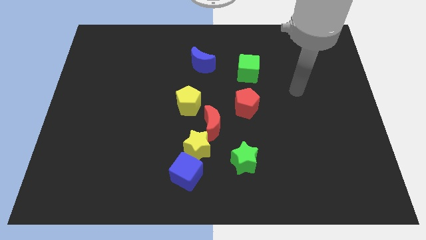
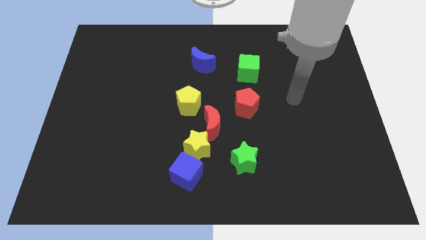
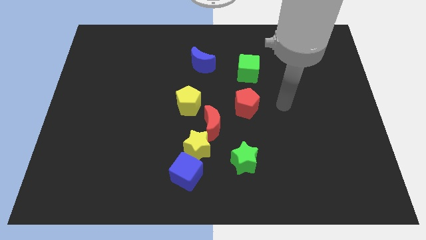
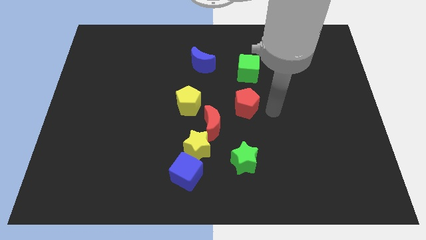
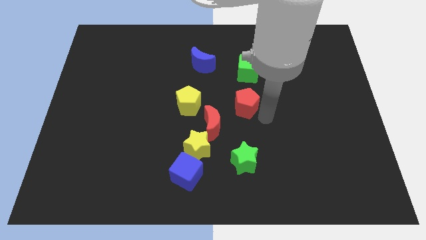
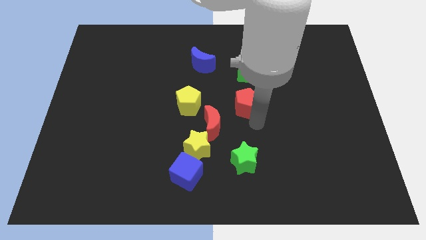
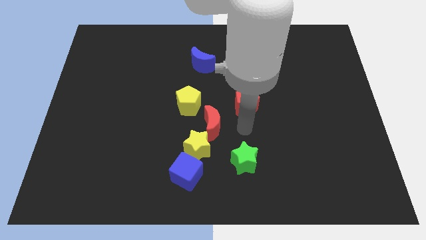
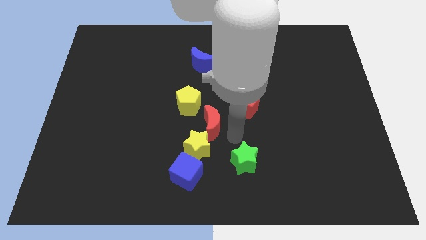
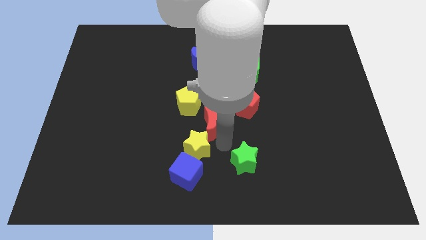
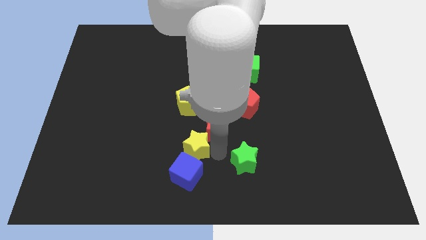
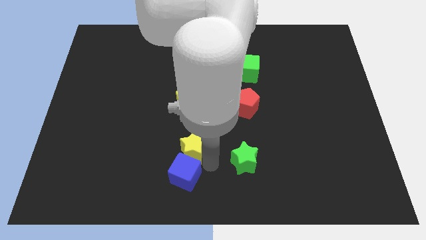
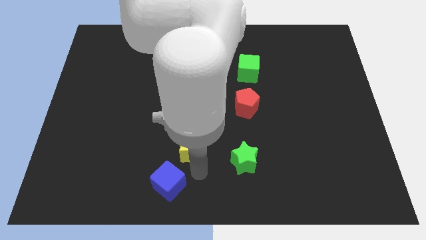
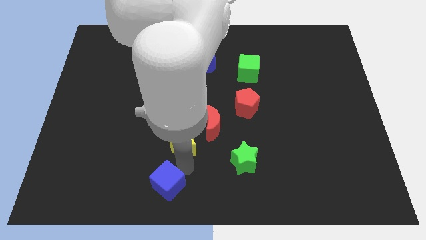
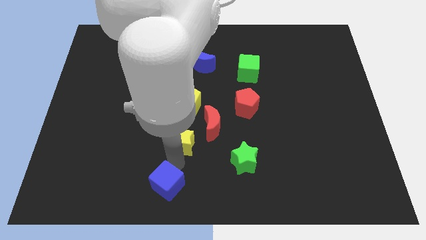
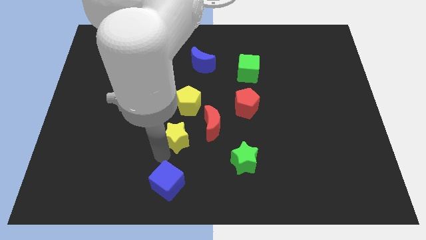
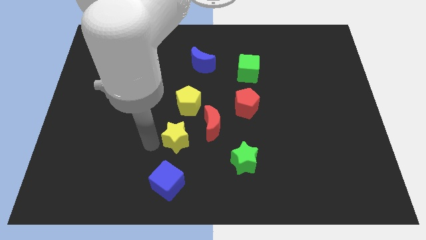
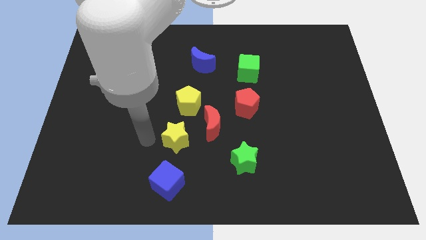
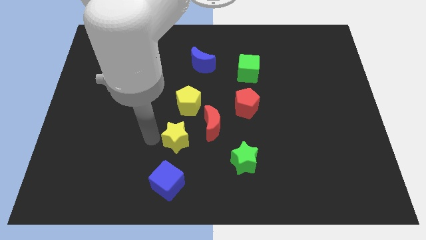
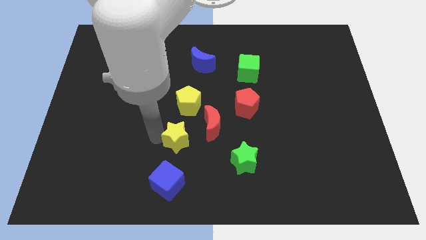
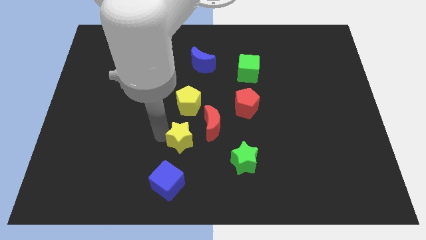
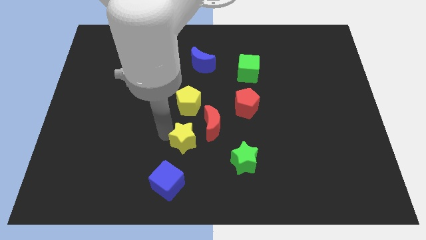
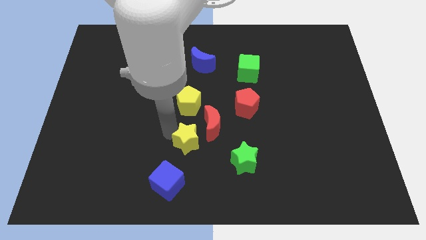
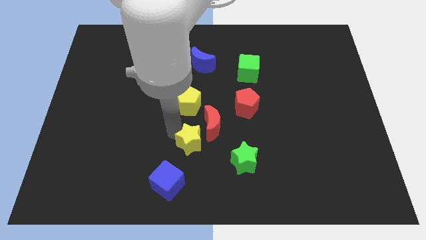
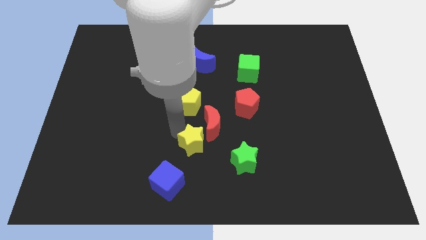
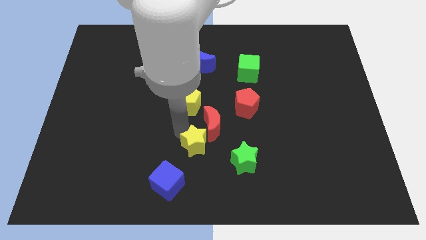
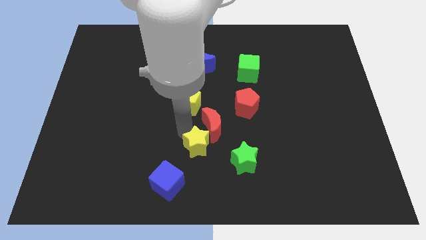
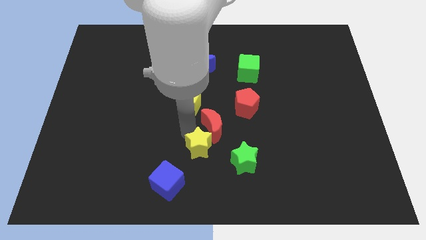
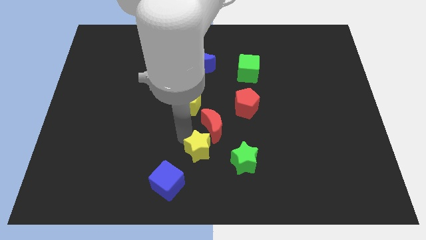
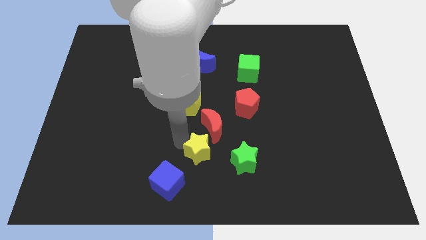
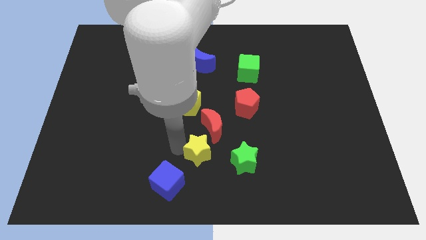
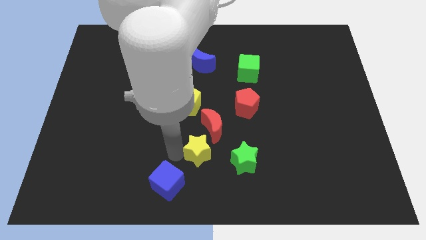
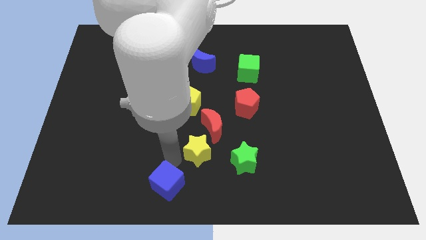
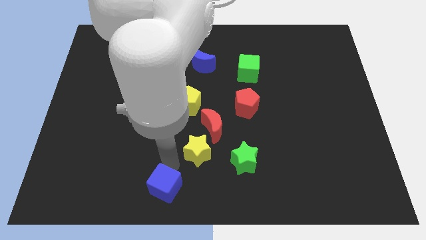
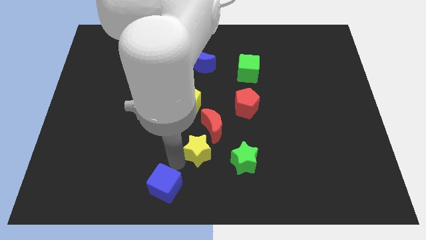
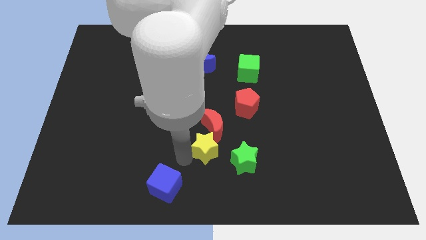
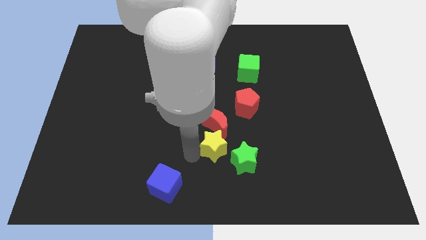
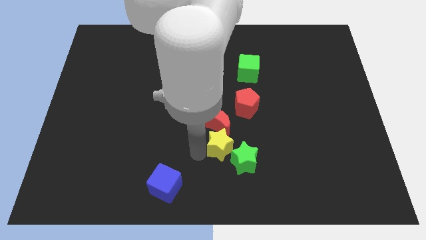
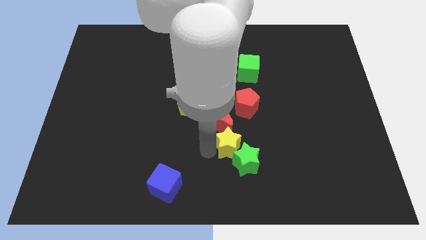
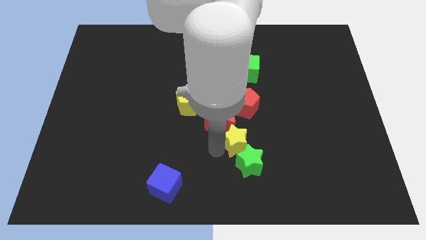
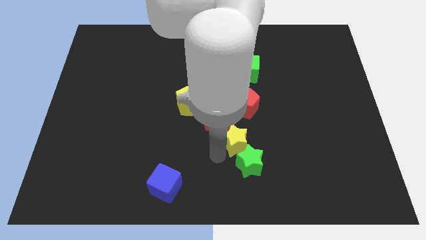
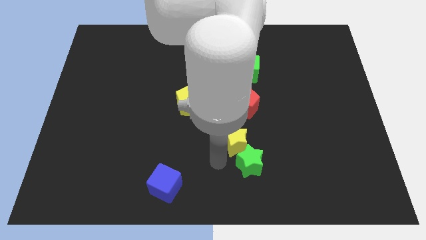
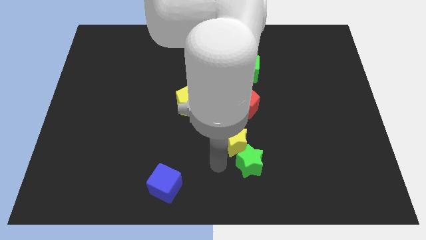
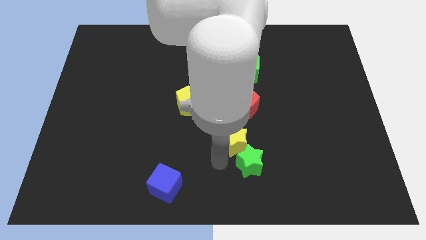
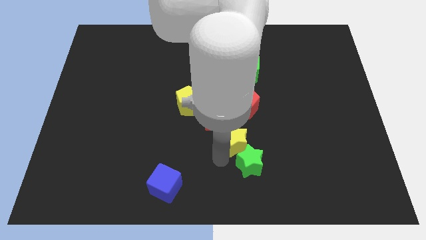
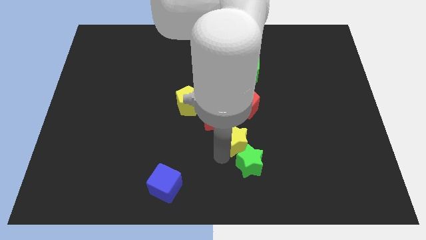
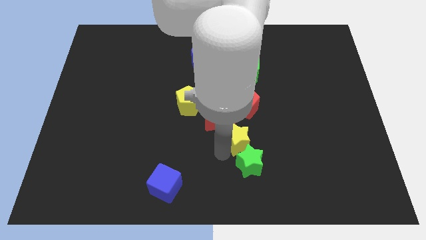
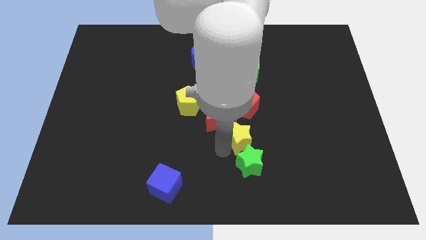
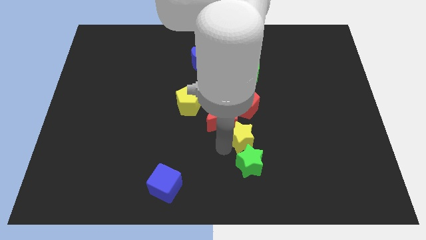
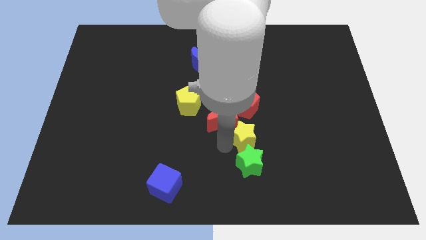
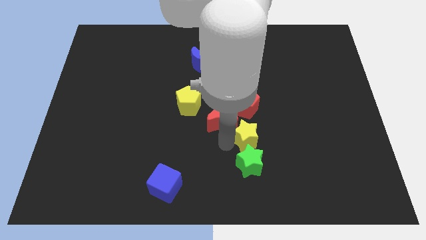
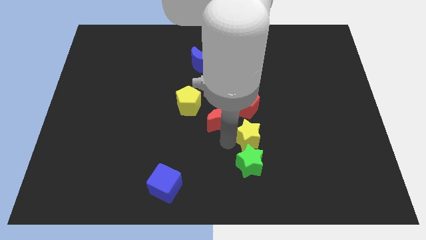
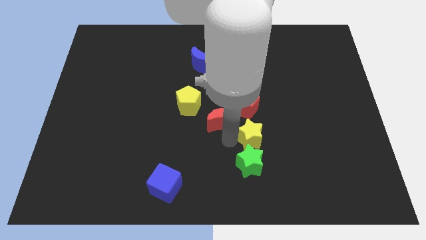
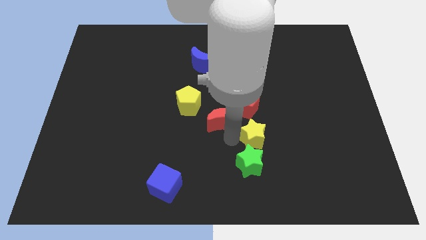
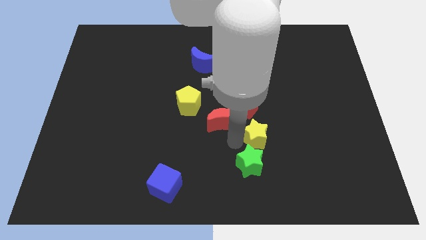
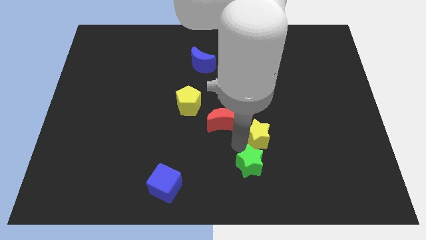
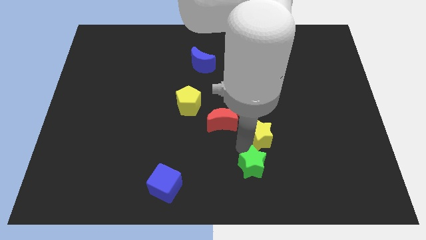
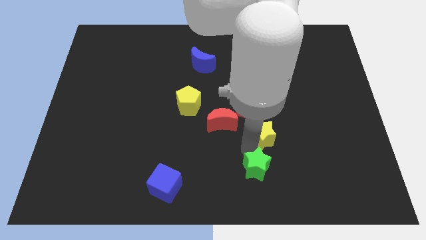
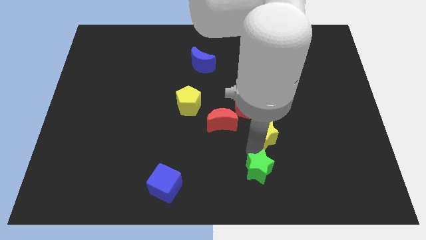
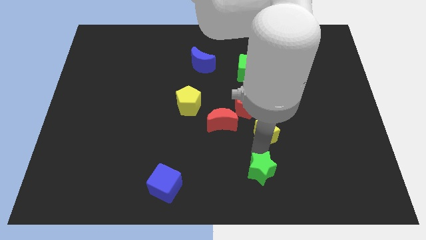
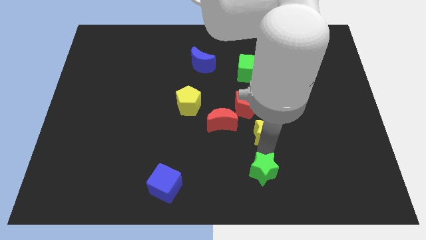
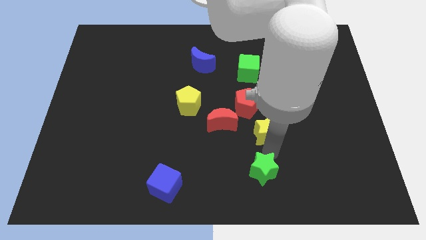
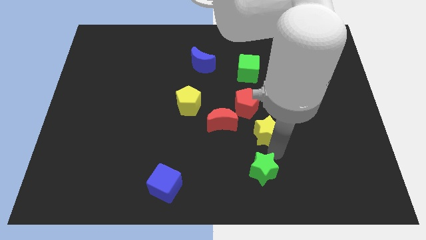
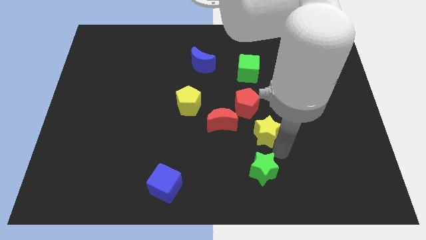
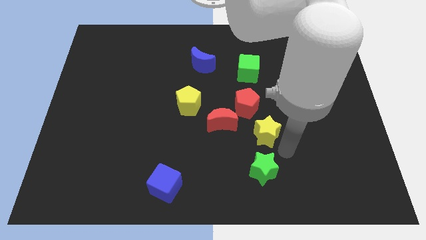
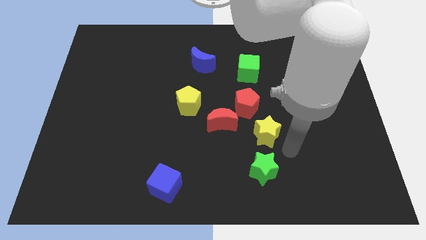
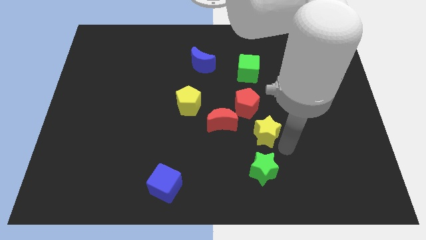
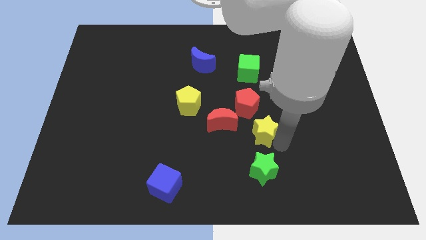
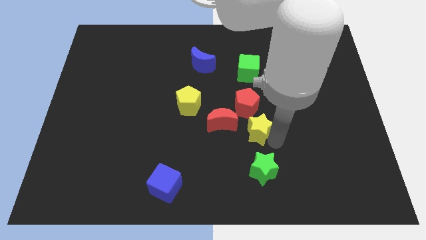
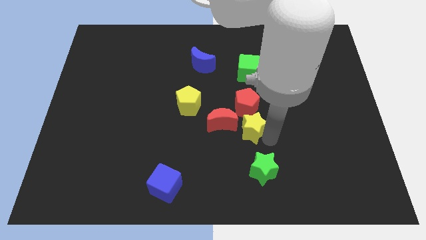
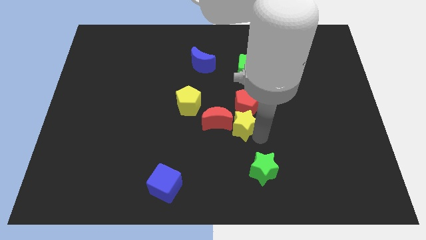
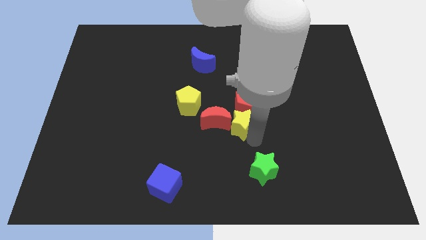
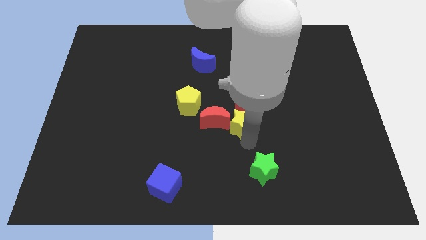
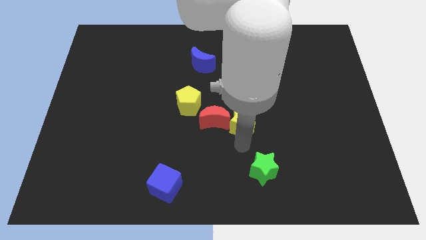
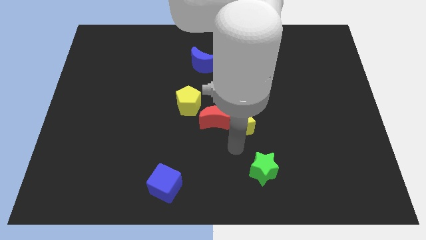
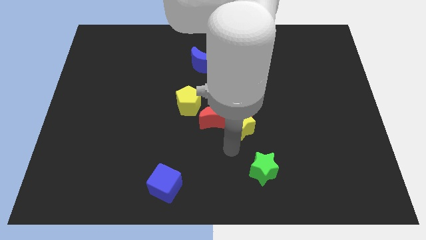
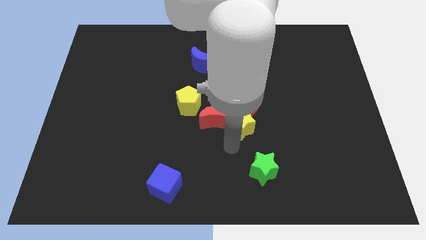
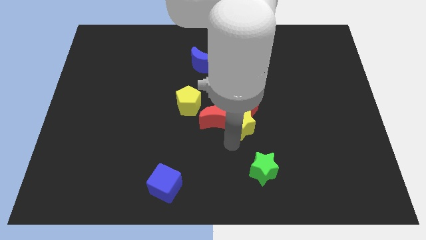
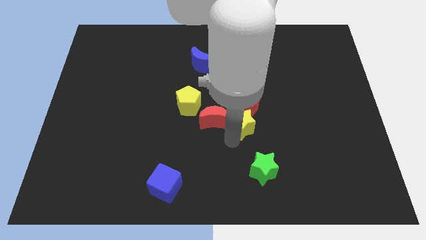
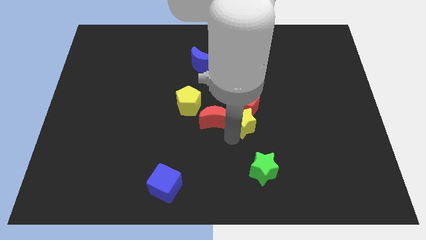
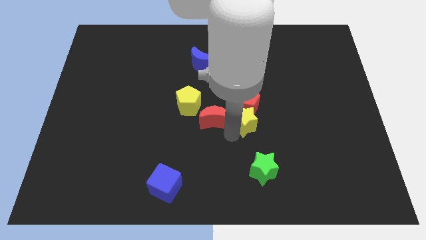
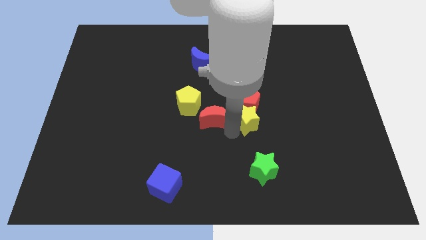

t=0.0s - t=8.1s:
push the yellow star to the bottom side of the green cube
